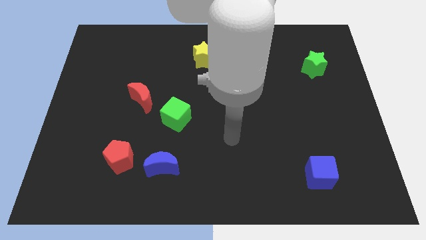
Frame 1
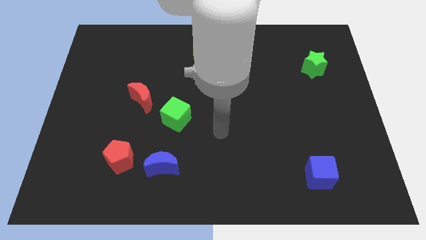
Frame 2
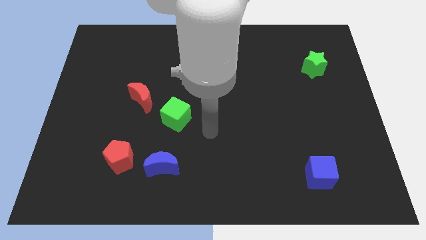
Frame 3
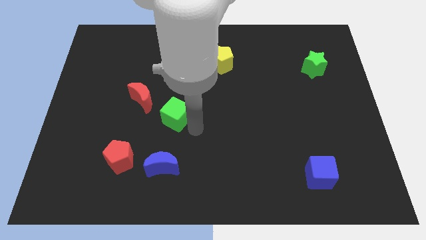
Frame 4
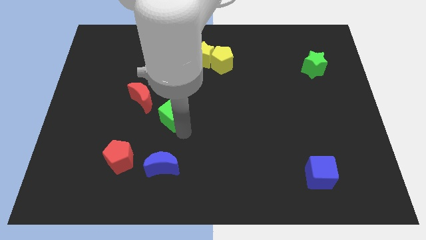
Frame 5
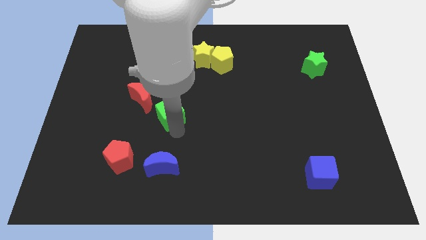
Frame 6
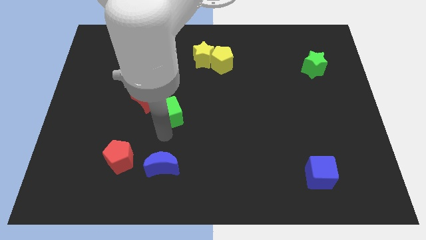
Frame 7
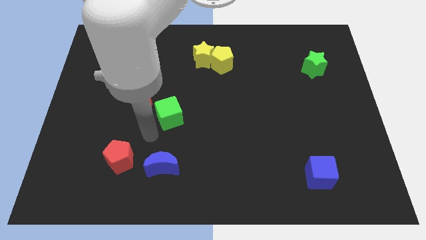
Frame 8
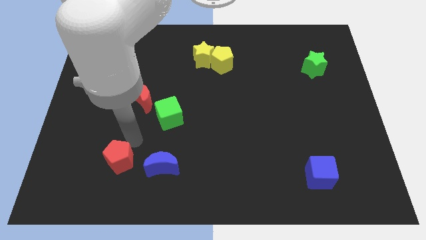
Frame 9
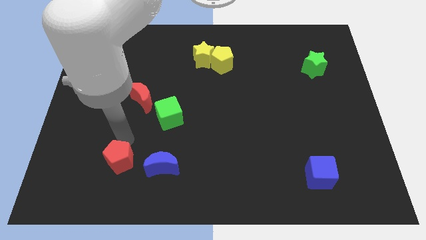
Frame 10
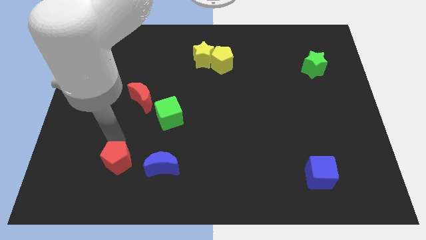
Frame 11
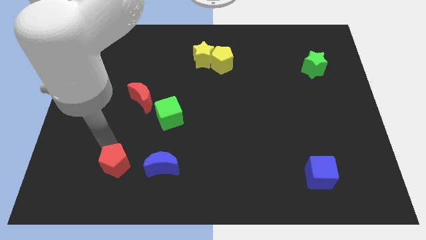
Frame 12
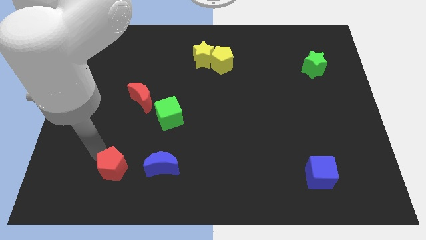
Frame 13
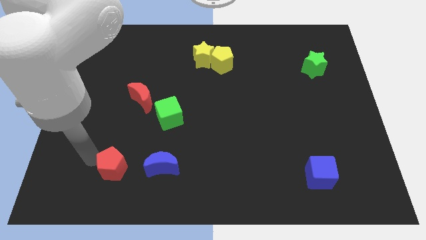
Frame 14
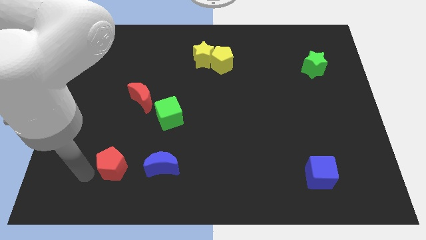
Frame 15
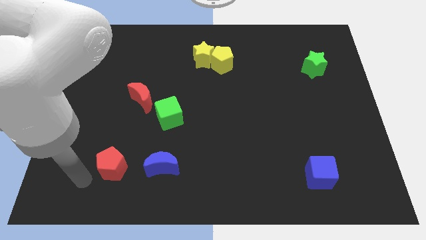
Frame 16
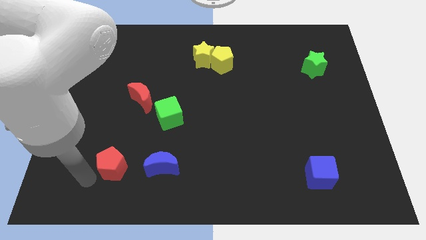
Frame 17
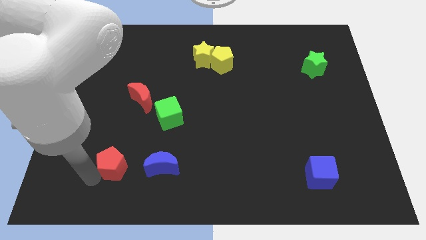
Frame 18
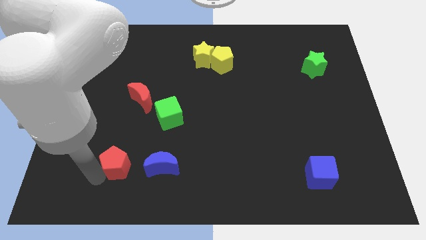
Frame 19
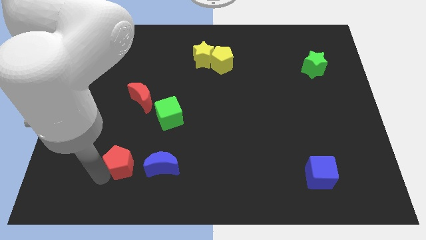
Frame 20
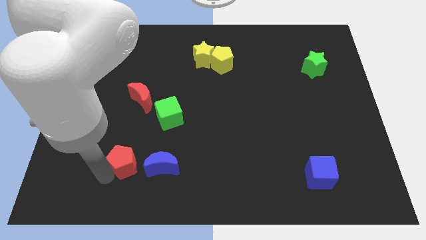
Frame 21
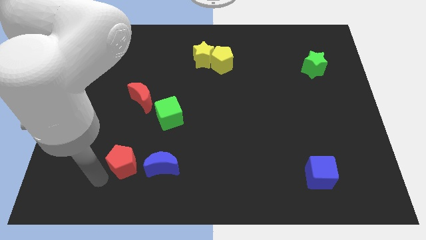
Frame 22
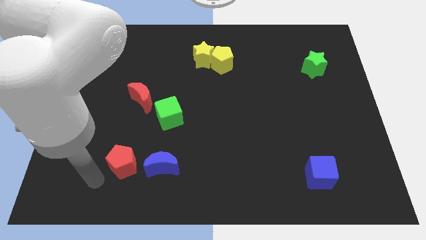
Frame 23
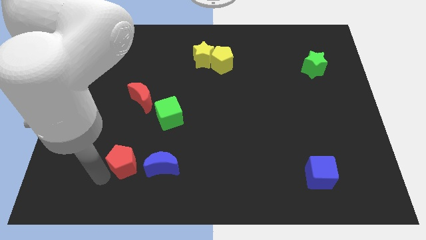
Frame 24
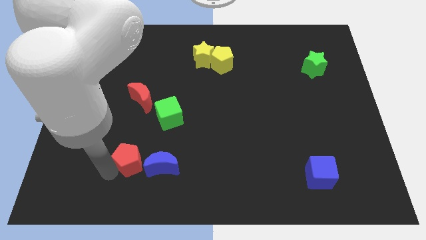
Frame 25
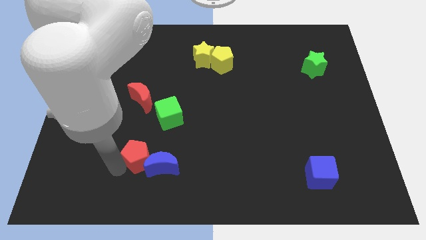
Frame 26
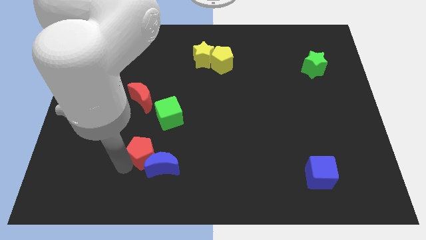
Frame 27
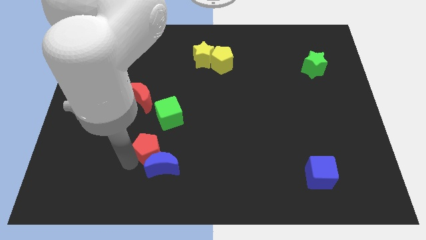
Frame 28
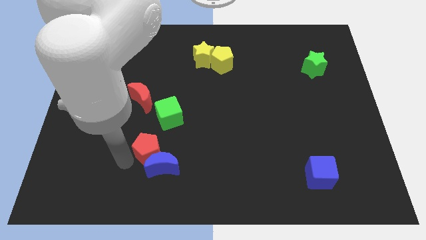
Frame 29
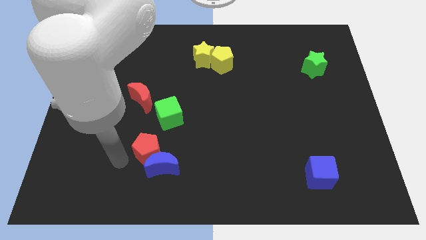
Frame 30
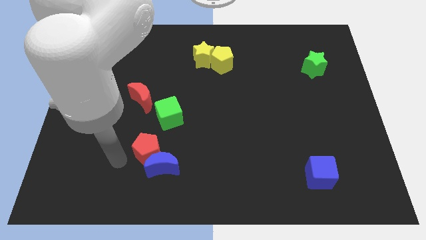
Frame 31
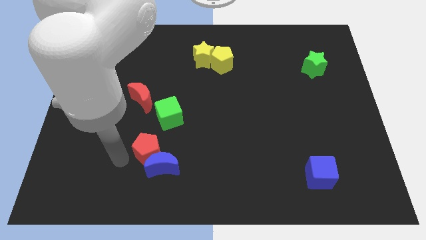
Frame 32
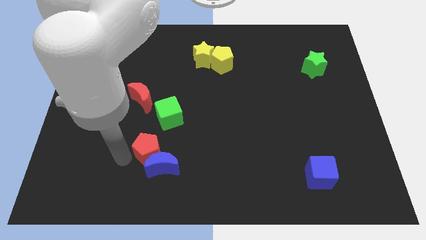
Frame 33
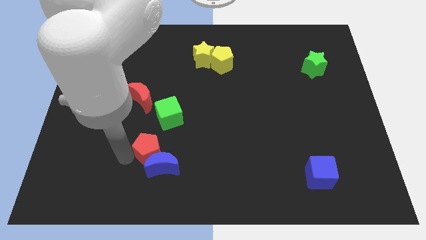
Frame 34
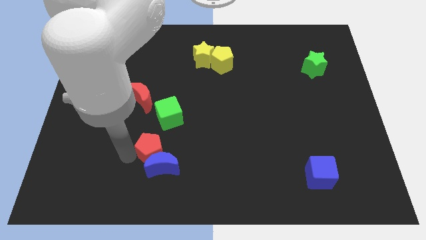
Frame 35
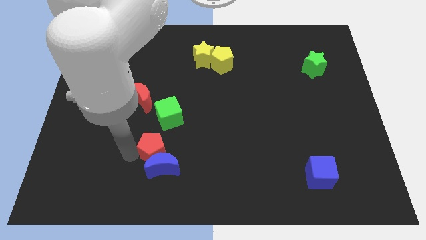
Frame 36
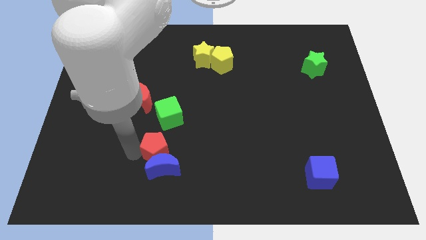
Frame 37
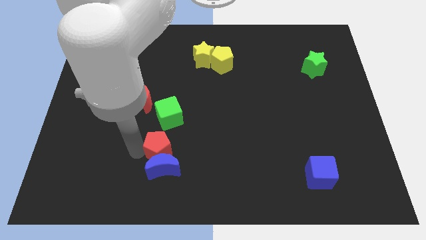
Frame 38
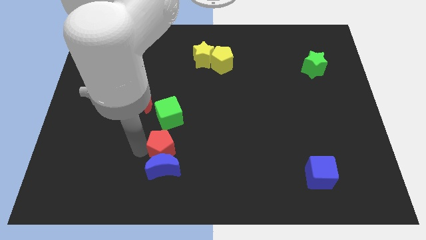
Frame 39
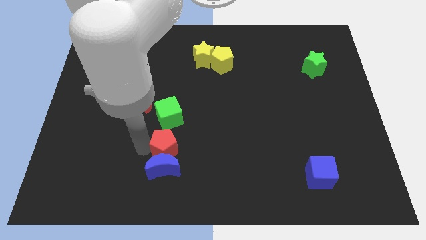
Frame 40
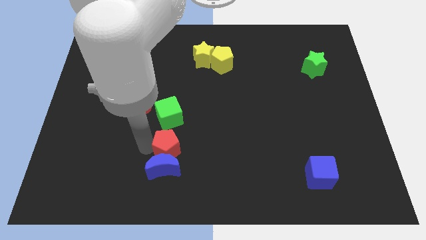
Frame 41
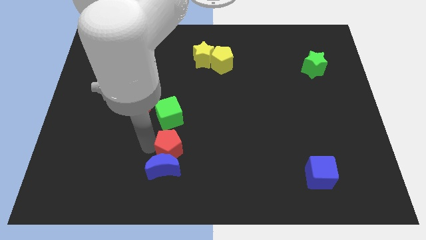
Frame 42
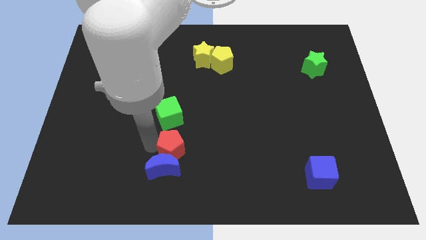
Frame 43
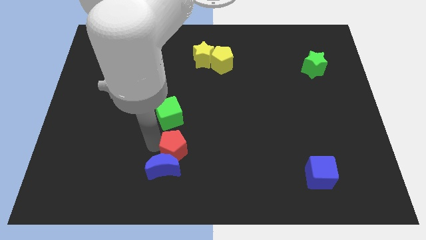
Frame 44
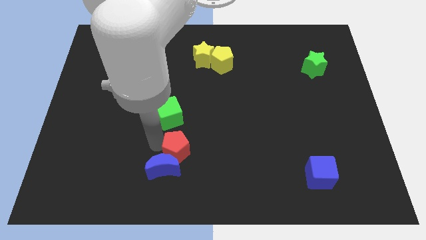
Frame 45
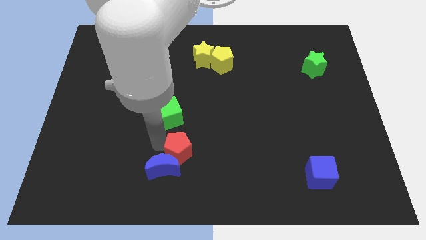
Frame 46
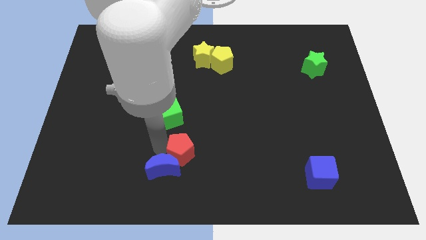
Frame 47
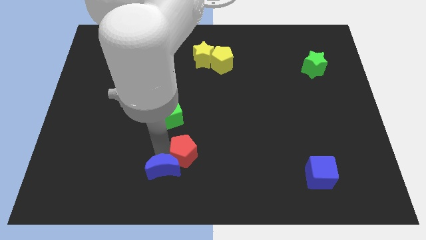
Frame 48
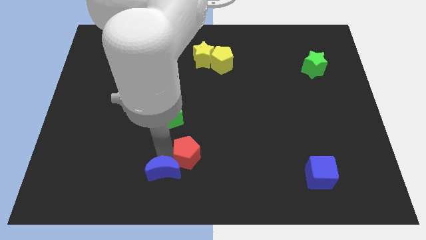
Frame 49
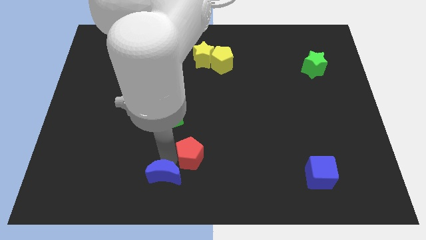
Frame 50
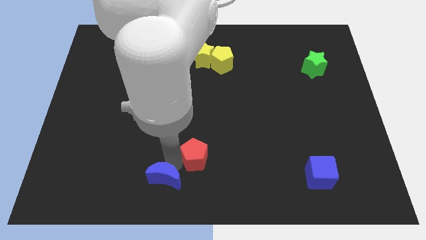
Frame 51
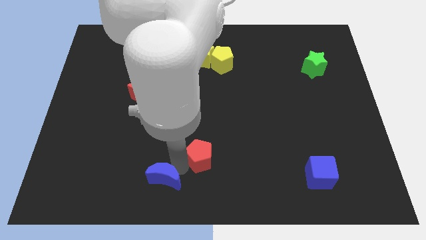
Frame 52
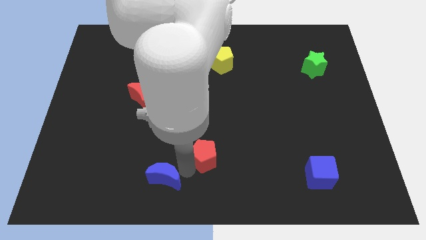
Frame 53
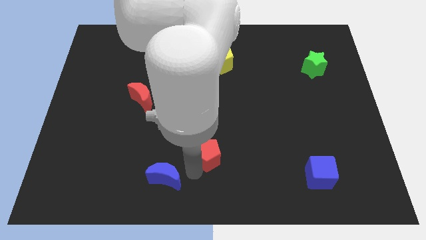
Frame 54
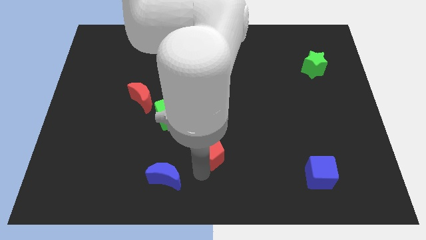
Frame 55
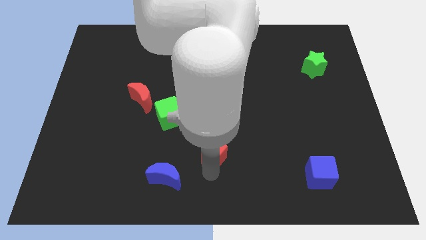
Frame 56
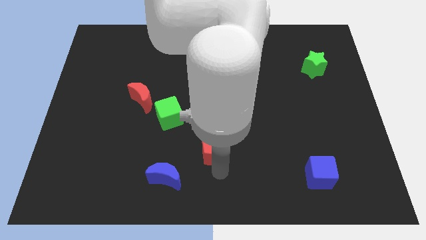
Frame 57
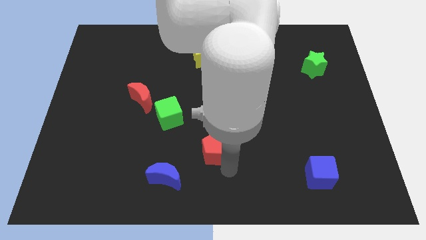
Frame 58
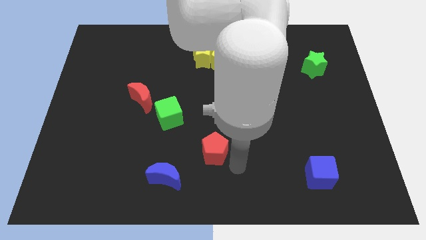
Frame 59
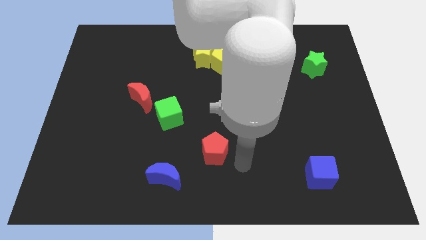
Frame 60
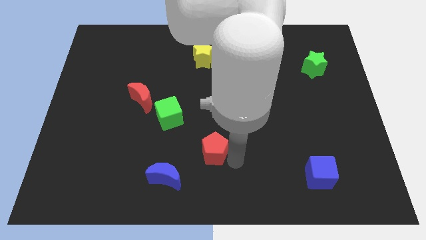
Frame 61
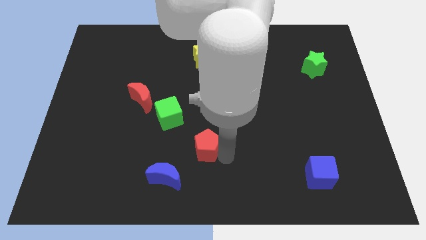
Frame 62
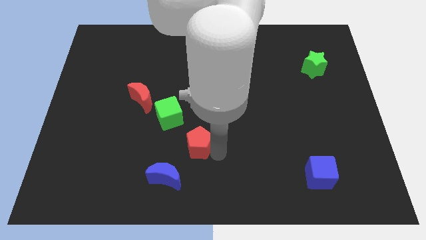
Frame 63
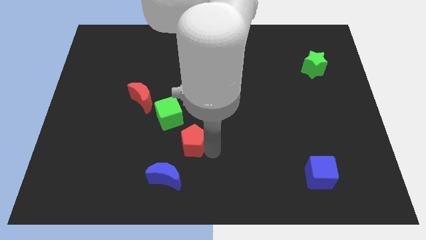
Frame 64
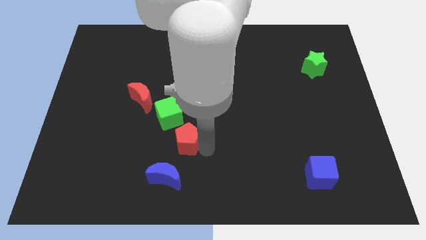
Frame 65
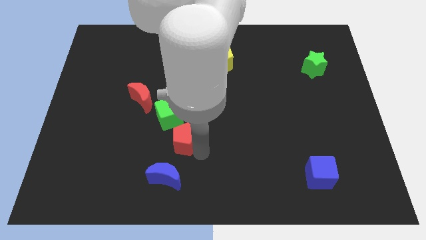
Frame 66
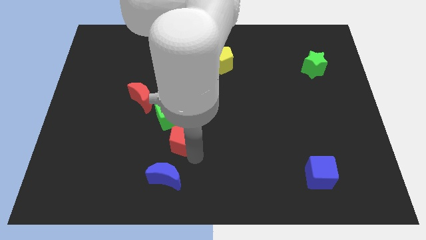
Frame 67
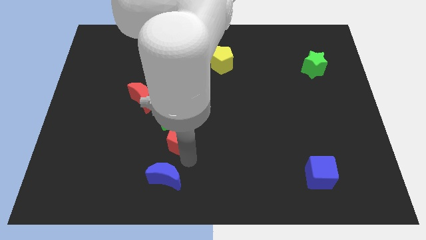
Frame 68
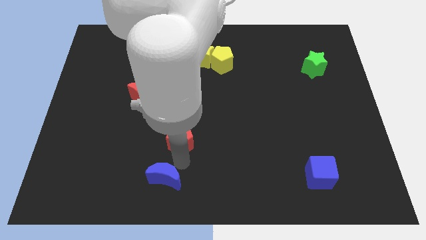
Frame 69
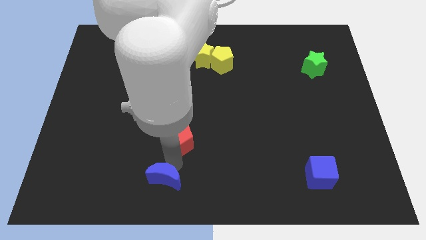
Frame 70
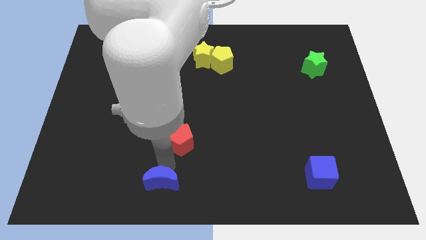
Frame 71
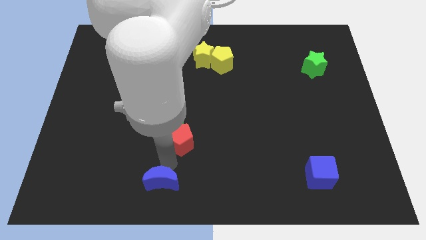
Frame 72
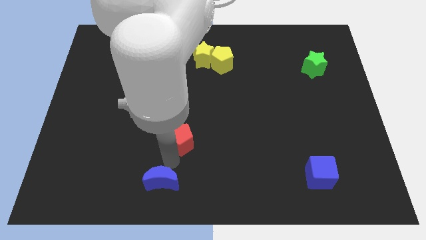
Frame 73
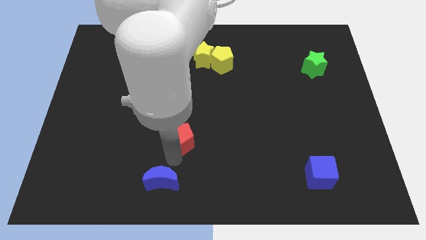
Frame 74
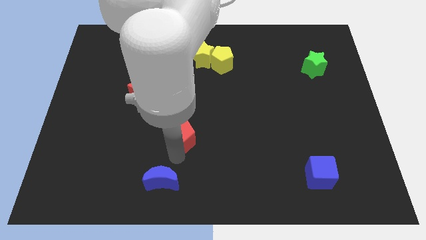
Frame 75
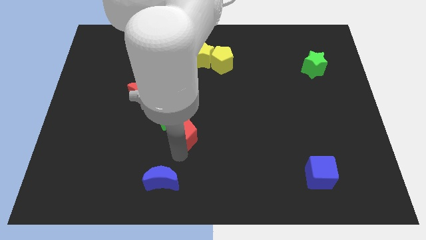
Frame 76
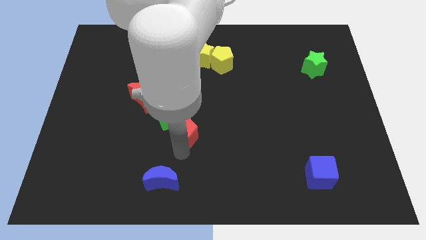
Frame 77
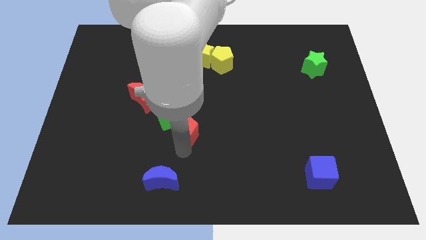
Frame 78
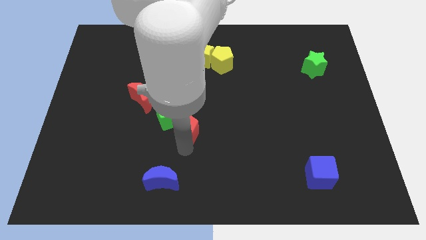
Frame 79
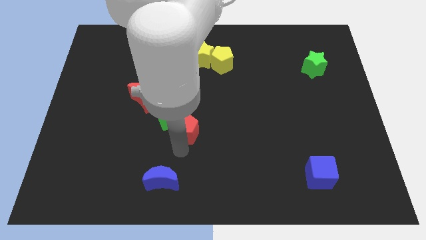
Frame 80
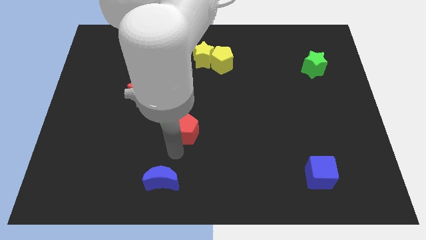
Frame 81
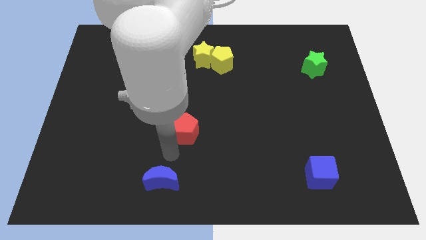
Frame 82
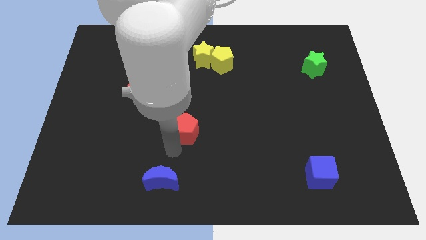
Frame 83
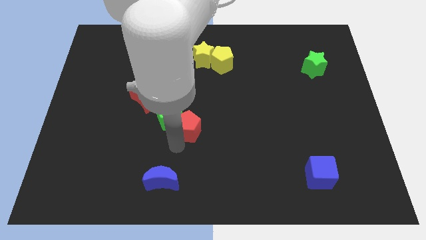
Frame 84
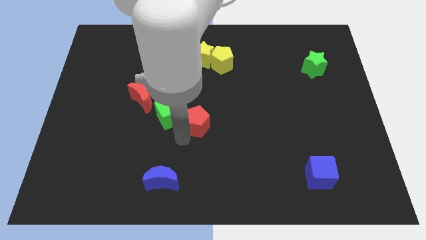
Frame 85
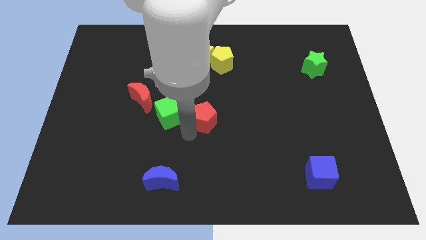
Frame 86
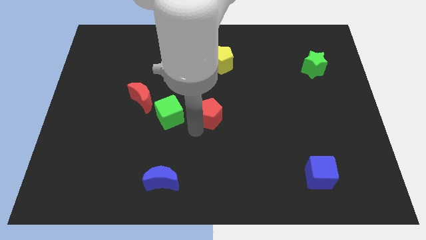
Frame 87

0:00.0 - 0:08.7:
slide the red pentagon upwards and then to the right
